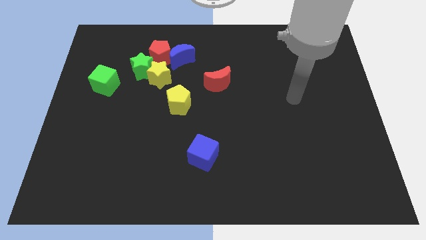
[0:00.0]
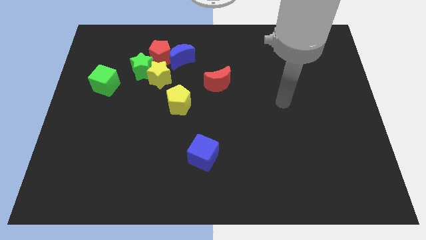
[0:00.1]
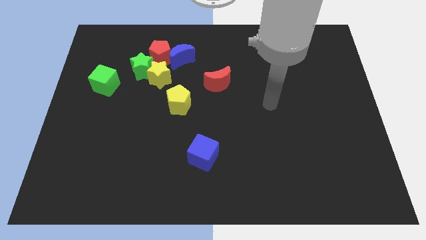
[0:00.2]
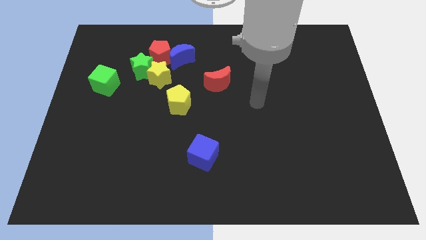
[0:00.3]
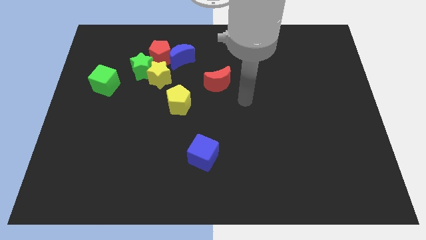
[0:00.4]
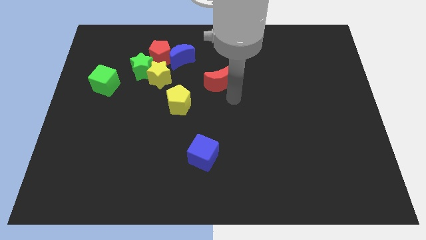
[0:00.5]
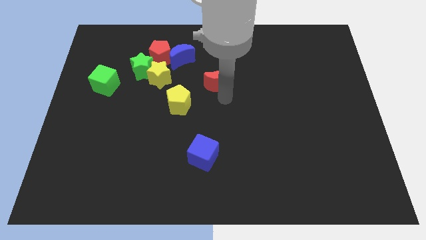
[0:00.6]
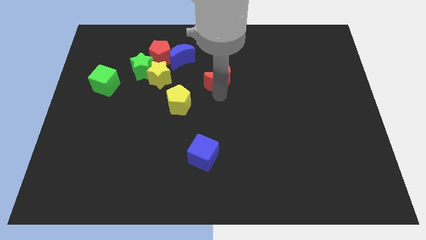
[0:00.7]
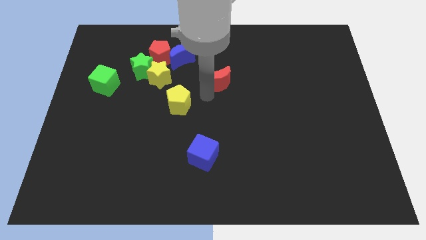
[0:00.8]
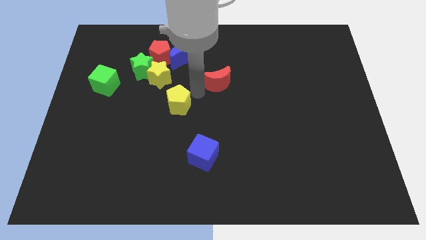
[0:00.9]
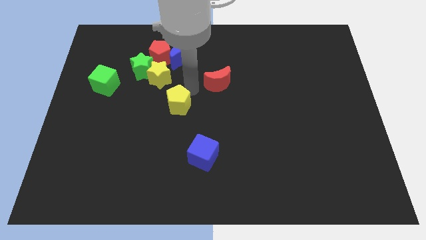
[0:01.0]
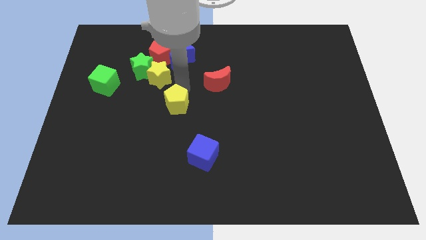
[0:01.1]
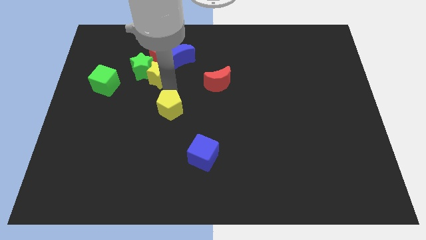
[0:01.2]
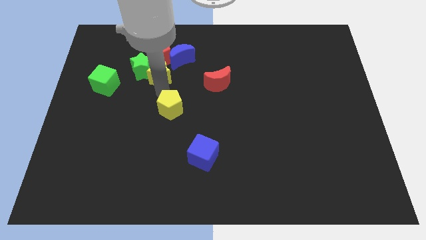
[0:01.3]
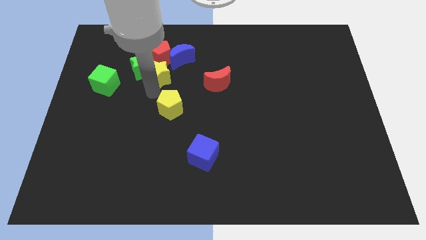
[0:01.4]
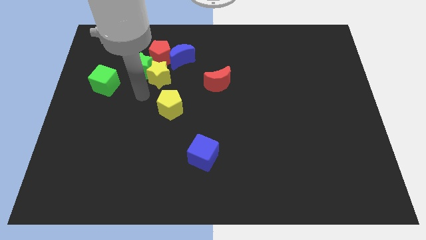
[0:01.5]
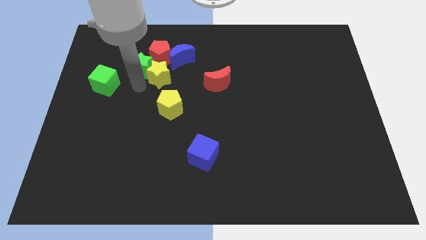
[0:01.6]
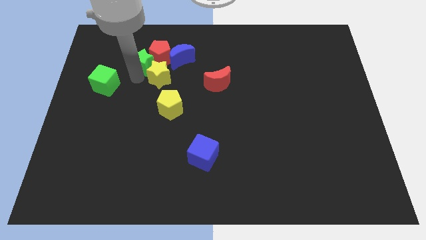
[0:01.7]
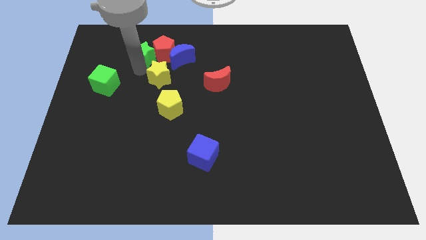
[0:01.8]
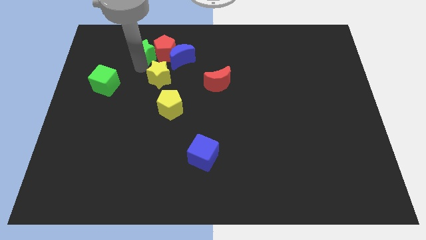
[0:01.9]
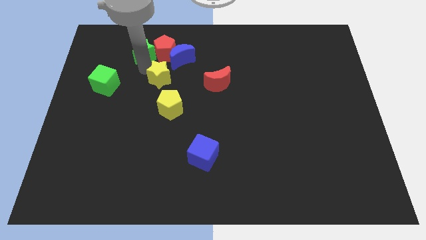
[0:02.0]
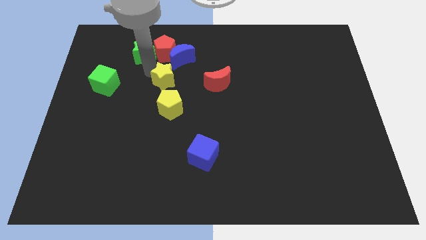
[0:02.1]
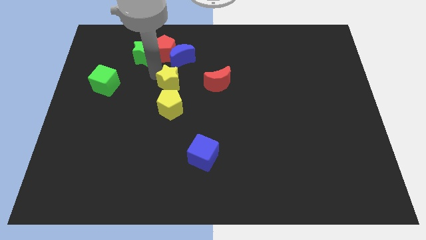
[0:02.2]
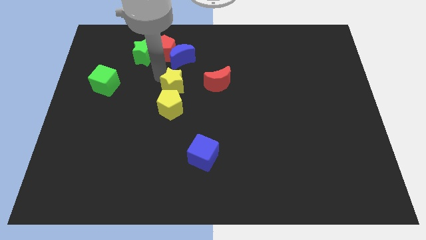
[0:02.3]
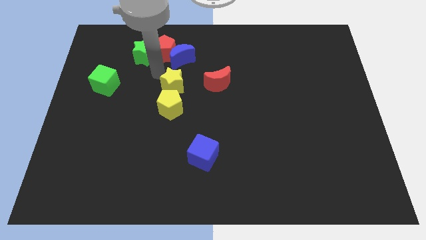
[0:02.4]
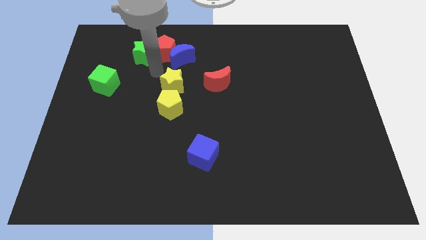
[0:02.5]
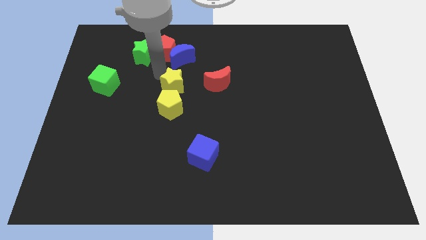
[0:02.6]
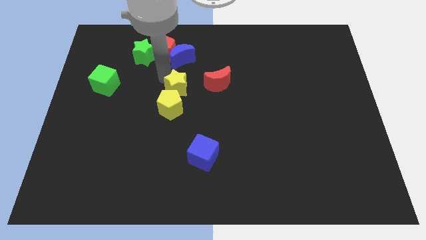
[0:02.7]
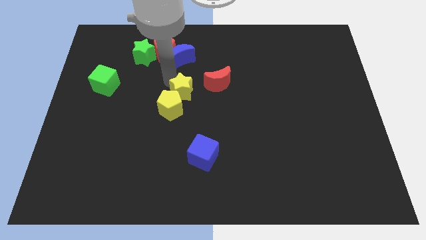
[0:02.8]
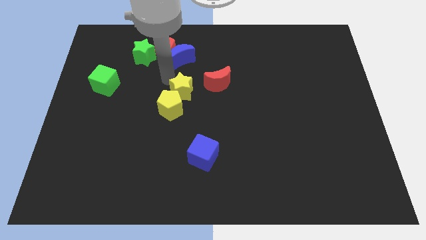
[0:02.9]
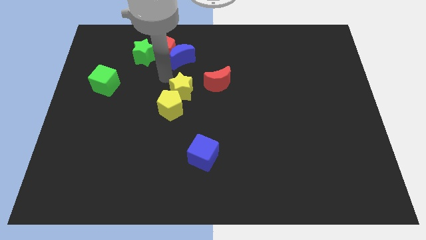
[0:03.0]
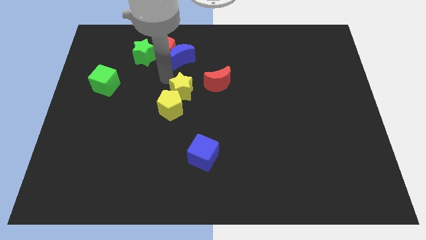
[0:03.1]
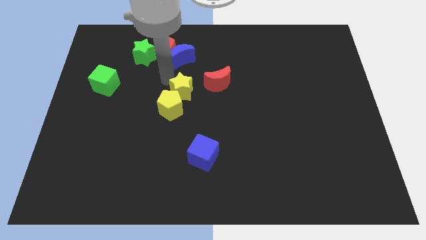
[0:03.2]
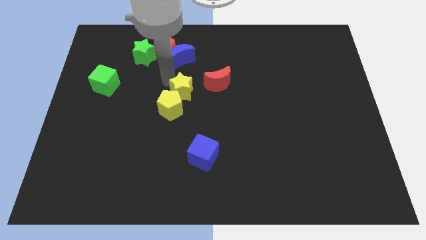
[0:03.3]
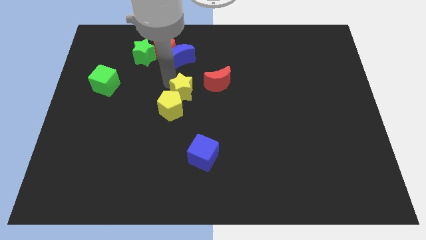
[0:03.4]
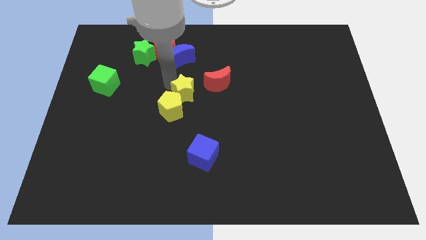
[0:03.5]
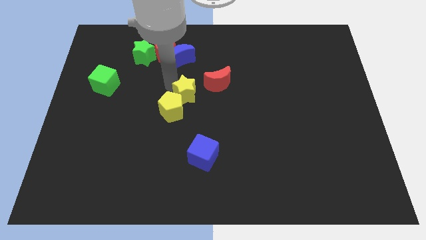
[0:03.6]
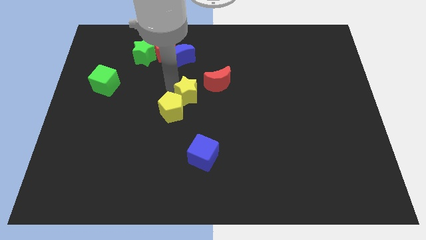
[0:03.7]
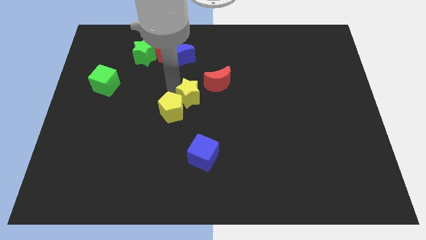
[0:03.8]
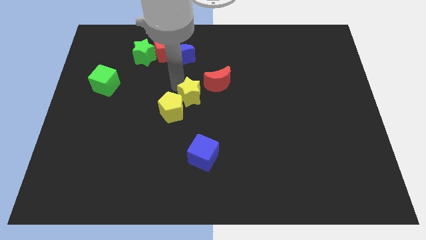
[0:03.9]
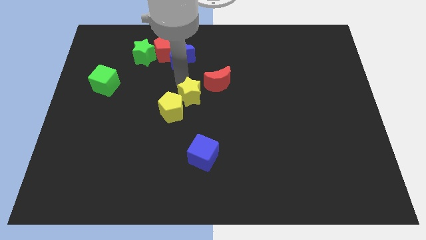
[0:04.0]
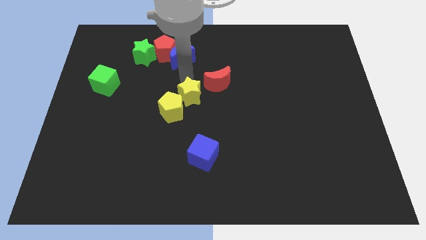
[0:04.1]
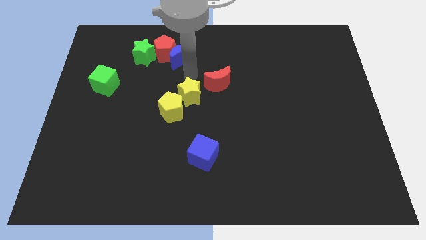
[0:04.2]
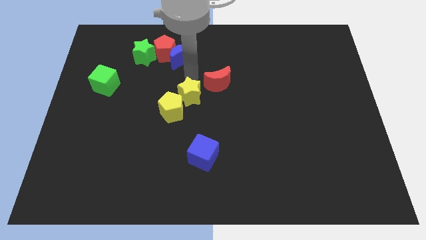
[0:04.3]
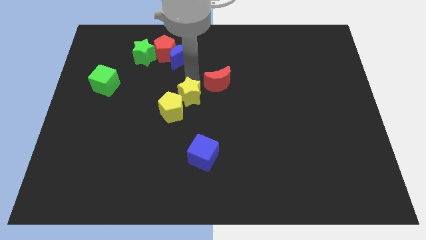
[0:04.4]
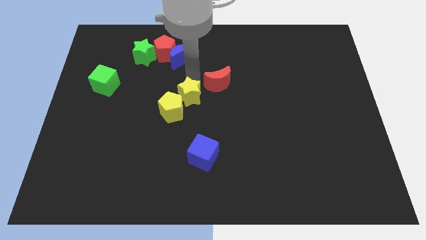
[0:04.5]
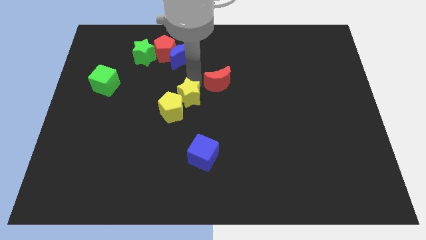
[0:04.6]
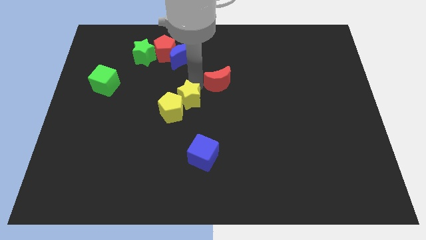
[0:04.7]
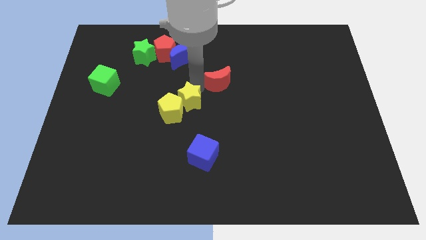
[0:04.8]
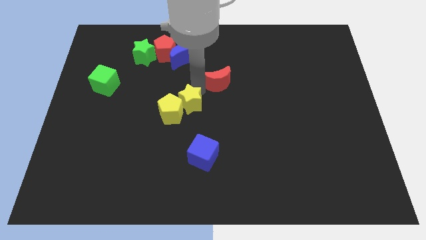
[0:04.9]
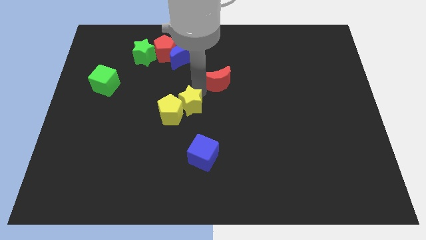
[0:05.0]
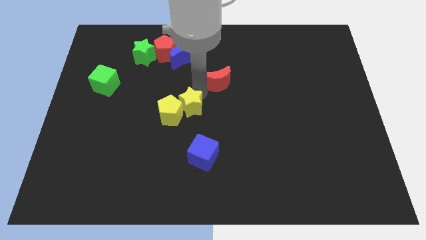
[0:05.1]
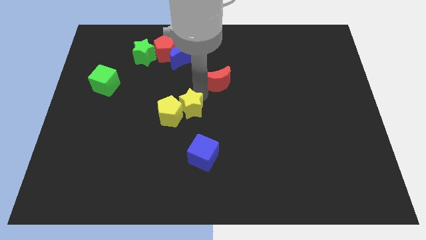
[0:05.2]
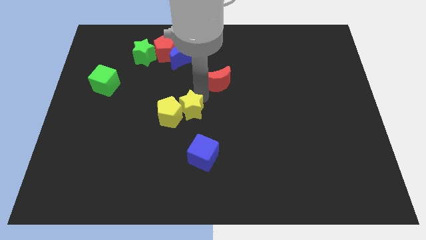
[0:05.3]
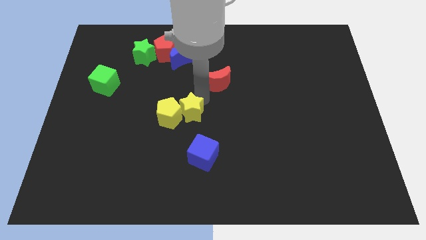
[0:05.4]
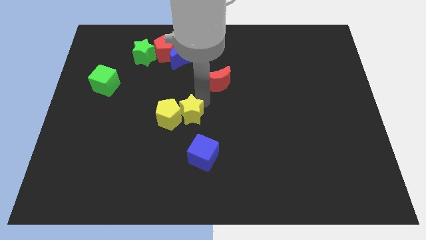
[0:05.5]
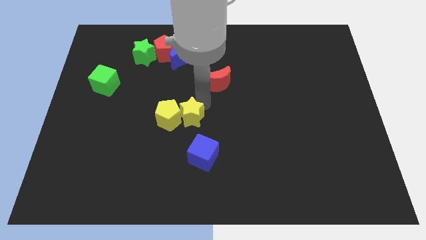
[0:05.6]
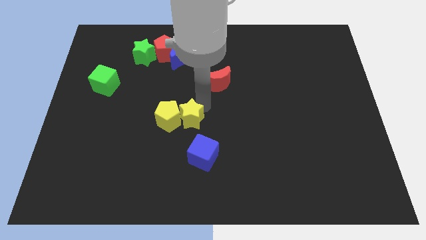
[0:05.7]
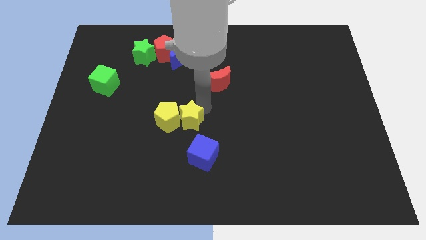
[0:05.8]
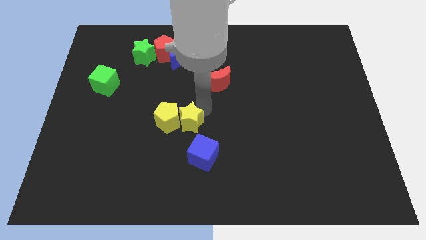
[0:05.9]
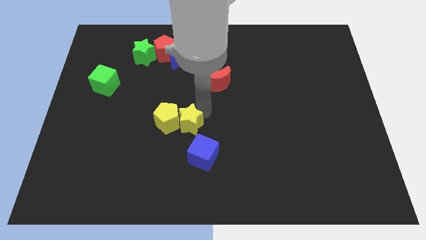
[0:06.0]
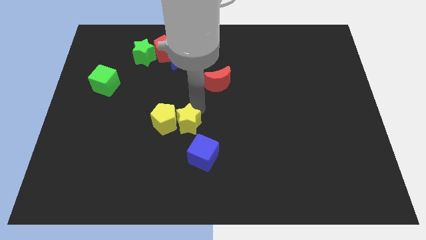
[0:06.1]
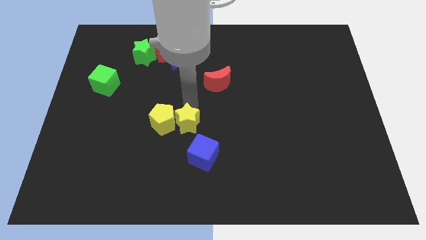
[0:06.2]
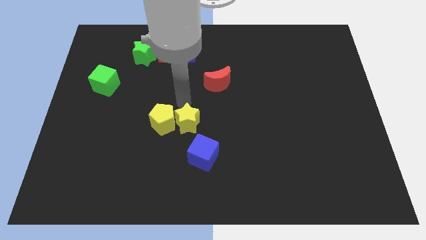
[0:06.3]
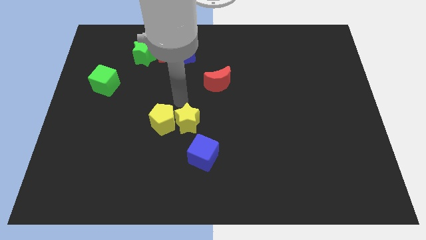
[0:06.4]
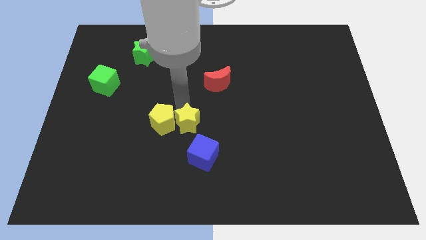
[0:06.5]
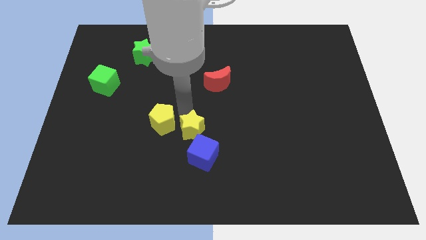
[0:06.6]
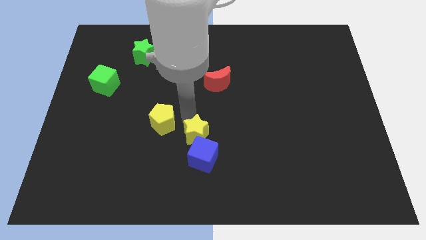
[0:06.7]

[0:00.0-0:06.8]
slide the yellow star next to the blue cube

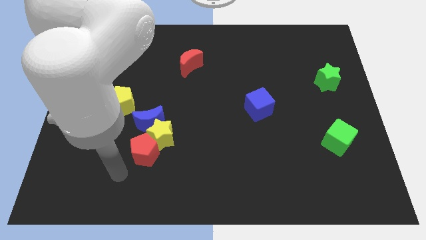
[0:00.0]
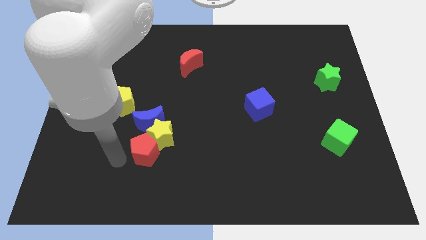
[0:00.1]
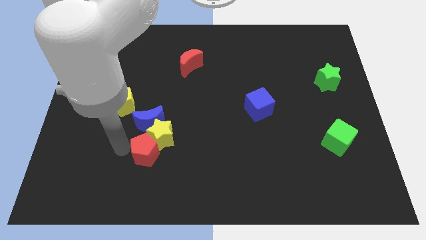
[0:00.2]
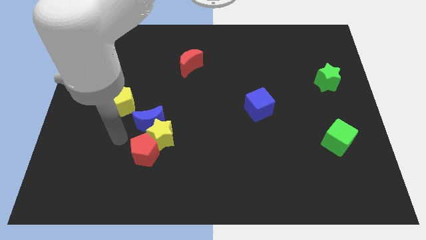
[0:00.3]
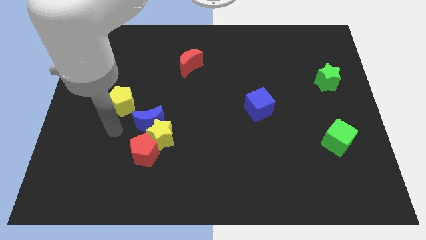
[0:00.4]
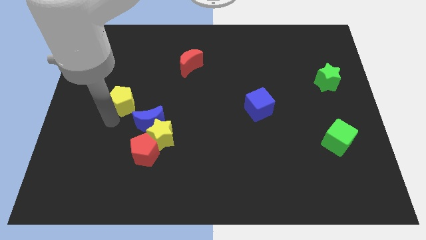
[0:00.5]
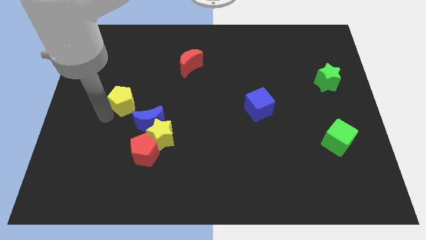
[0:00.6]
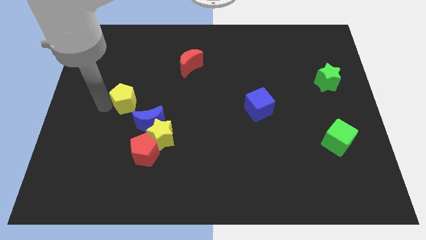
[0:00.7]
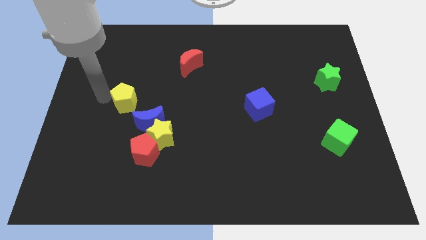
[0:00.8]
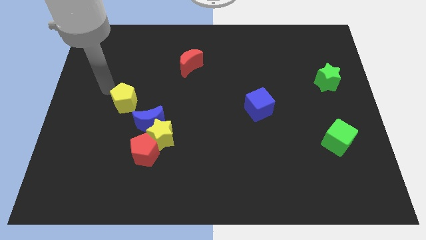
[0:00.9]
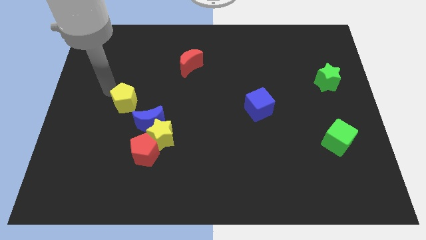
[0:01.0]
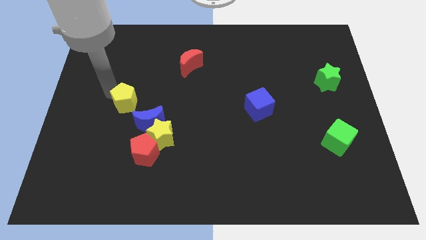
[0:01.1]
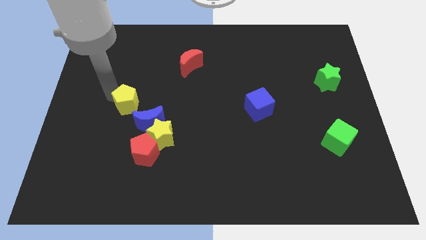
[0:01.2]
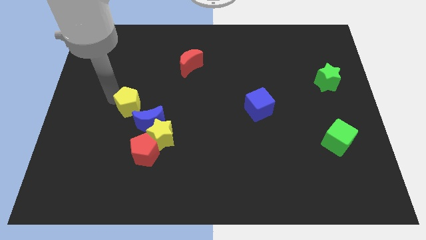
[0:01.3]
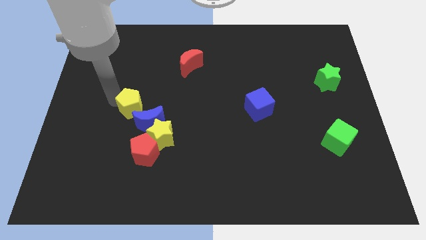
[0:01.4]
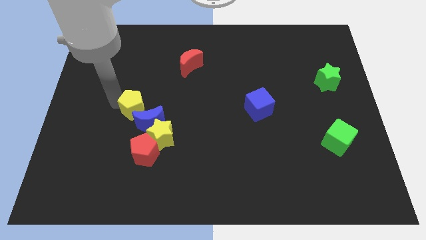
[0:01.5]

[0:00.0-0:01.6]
push the yellow pentagon to the blue moon
